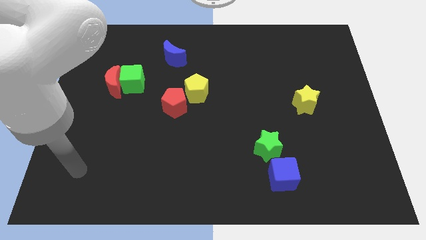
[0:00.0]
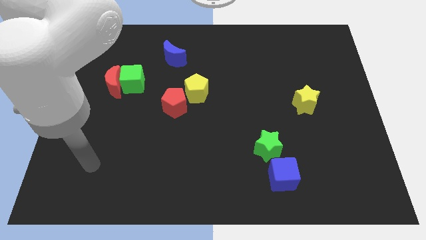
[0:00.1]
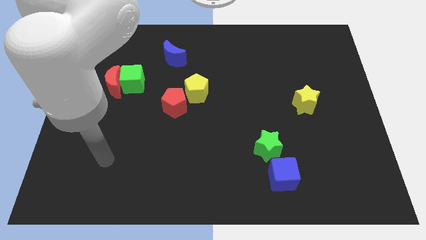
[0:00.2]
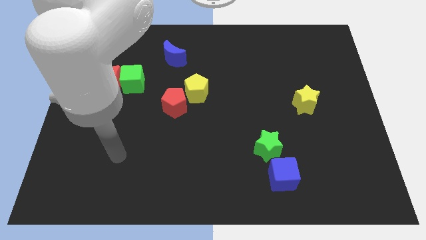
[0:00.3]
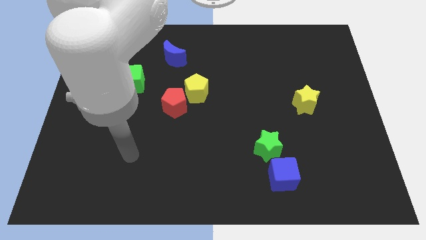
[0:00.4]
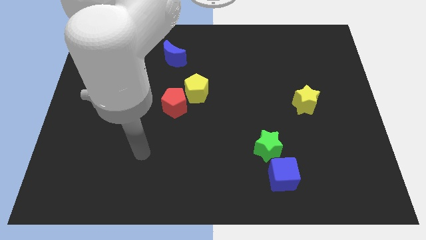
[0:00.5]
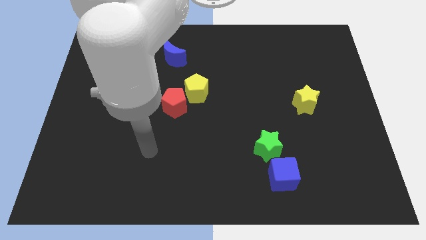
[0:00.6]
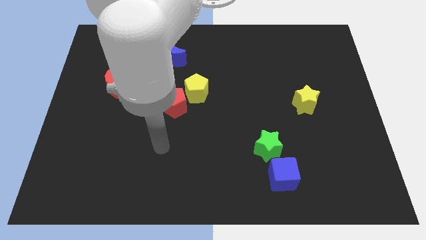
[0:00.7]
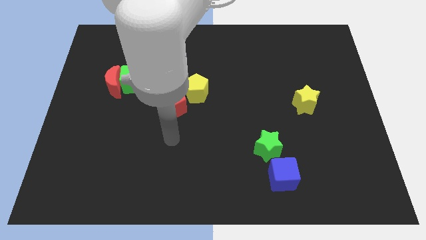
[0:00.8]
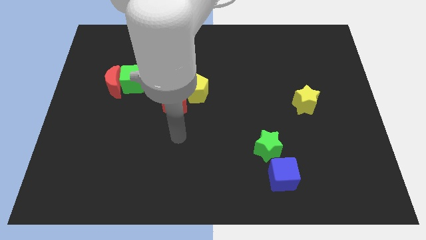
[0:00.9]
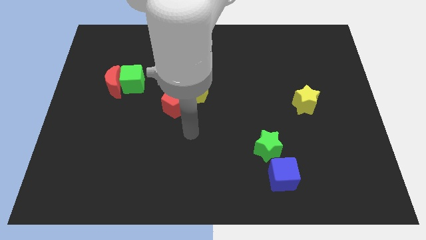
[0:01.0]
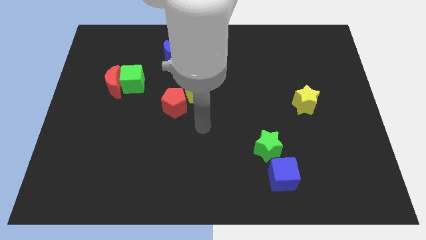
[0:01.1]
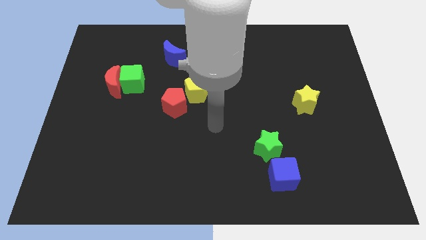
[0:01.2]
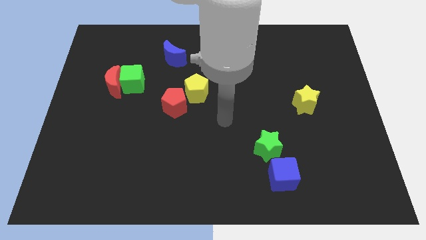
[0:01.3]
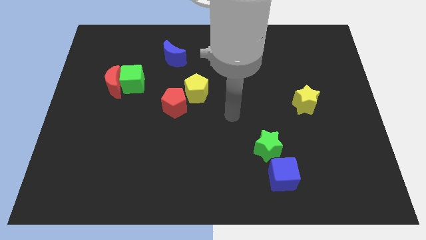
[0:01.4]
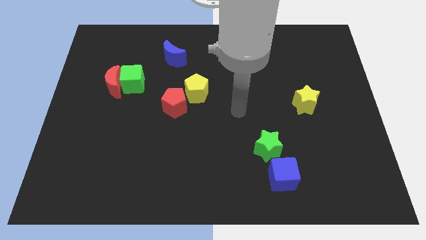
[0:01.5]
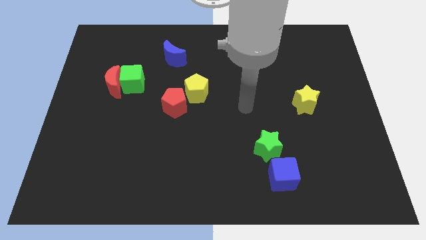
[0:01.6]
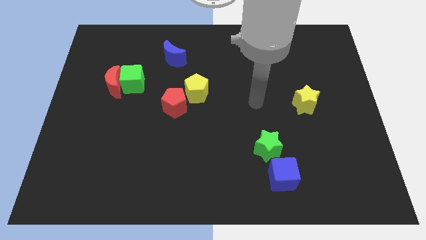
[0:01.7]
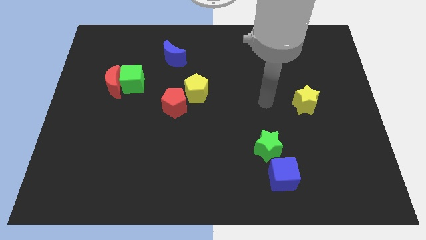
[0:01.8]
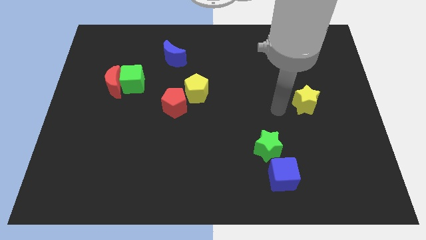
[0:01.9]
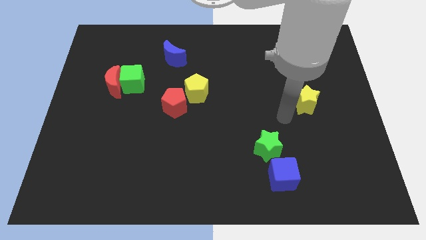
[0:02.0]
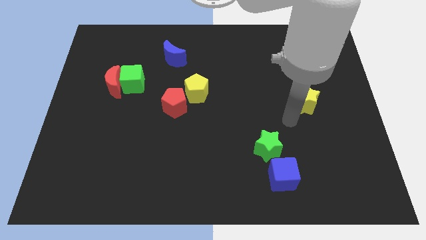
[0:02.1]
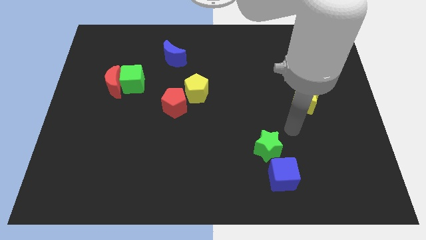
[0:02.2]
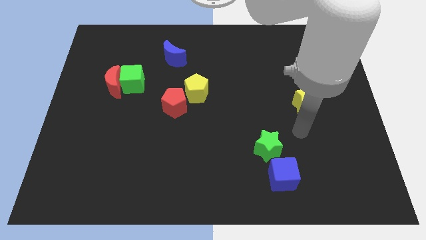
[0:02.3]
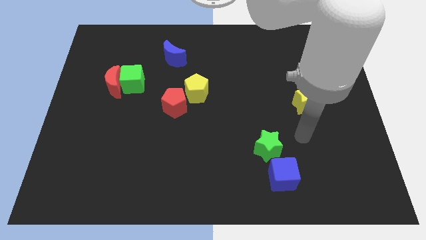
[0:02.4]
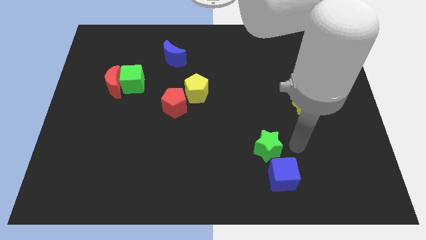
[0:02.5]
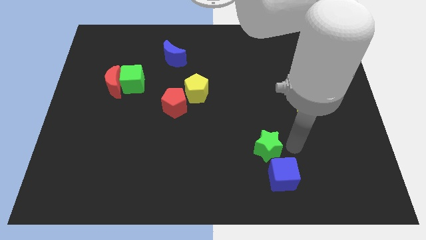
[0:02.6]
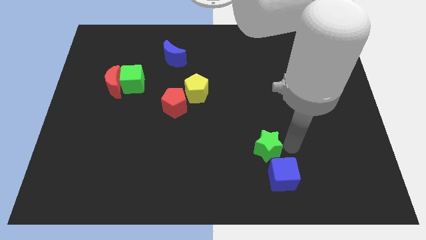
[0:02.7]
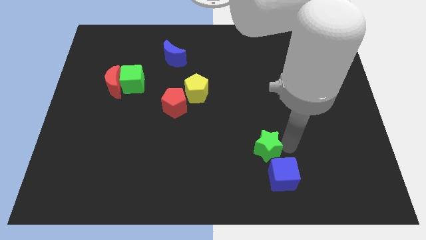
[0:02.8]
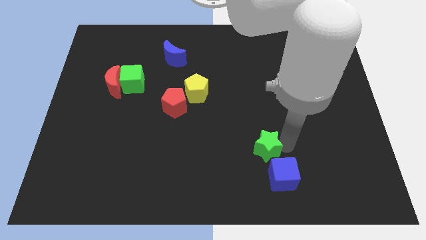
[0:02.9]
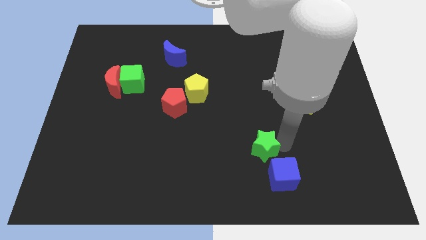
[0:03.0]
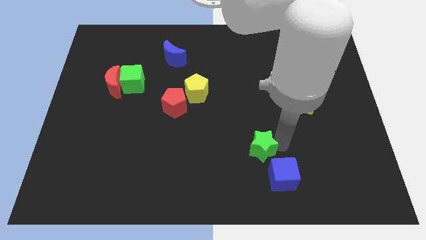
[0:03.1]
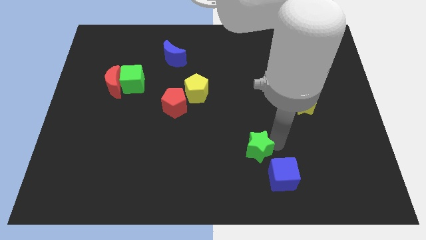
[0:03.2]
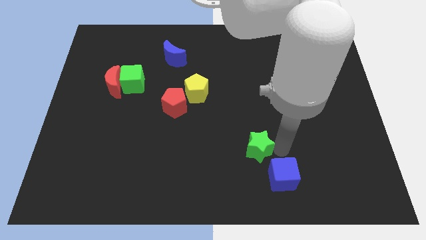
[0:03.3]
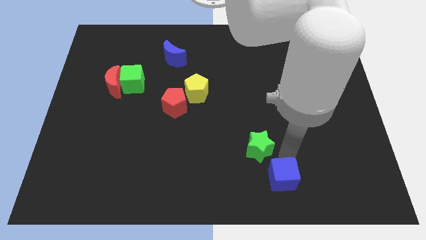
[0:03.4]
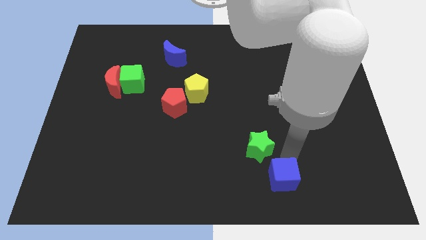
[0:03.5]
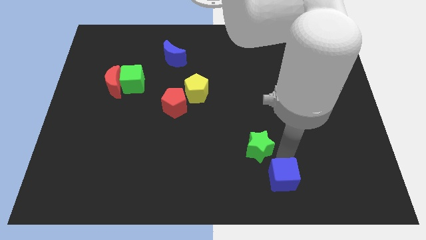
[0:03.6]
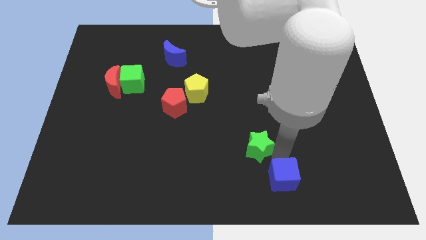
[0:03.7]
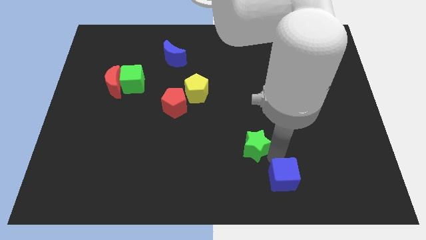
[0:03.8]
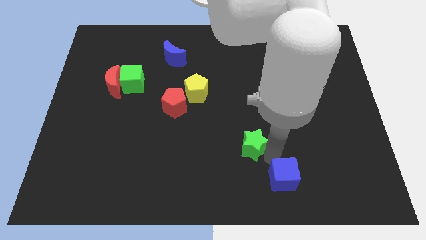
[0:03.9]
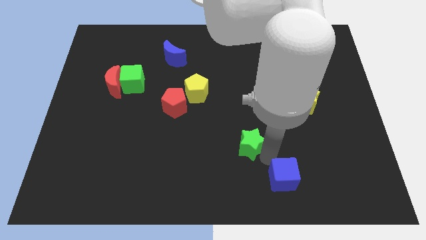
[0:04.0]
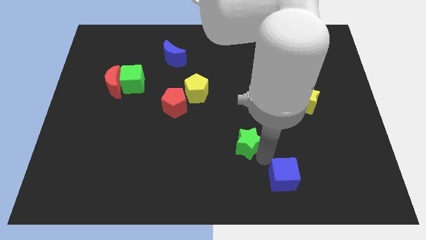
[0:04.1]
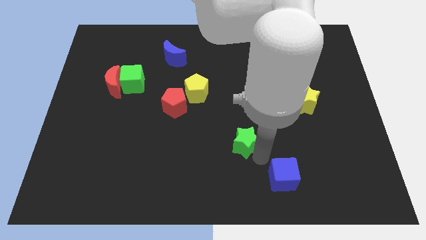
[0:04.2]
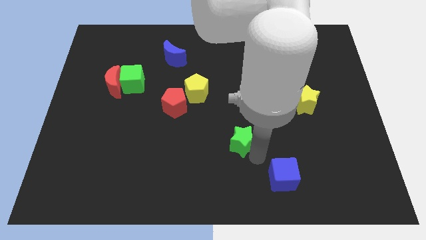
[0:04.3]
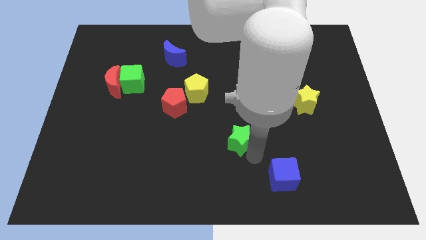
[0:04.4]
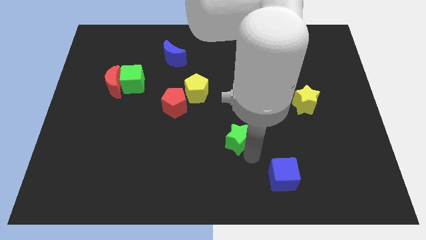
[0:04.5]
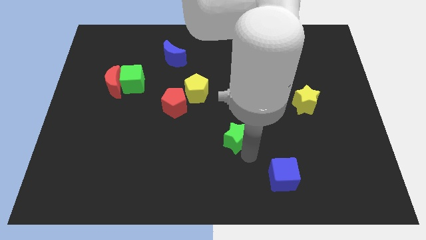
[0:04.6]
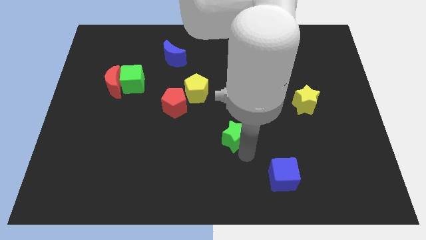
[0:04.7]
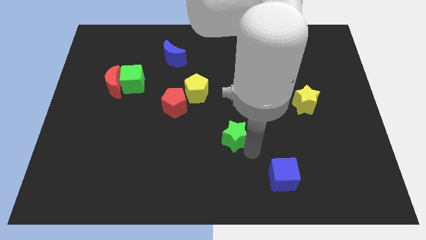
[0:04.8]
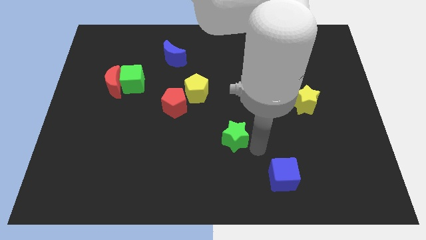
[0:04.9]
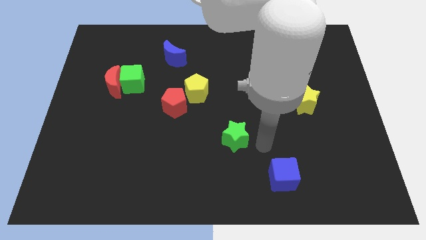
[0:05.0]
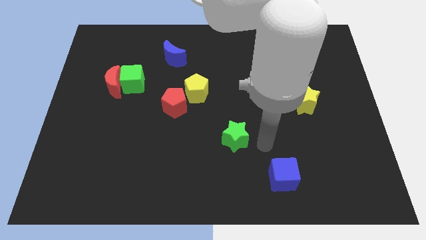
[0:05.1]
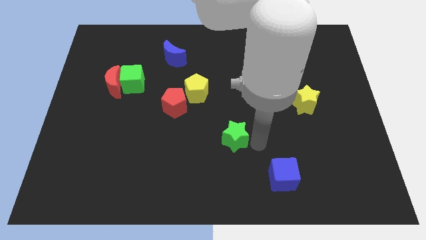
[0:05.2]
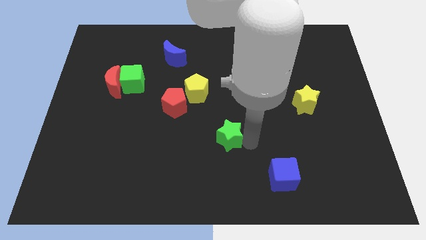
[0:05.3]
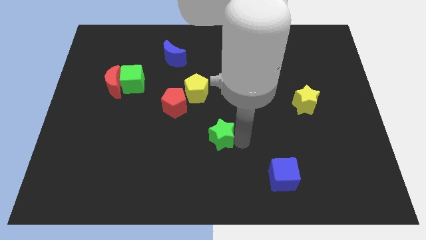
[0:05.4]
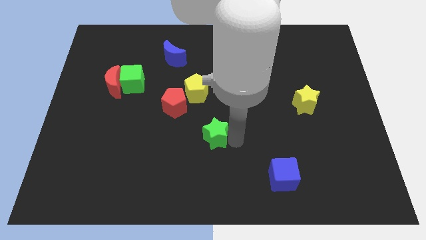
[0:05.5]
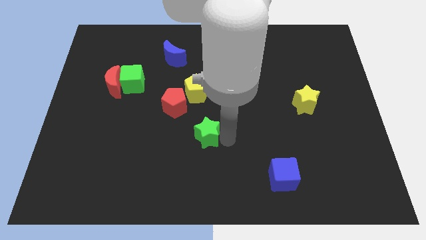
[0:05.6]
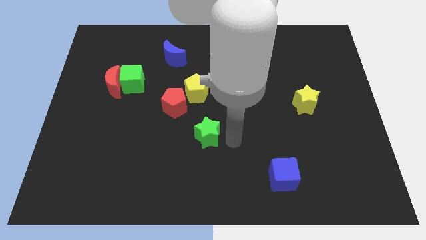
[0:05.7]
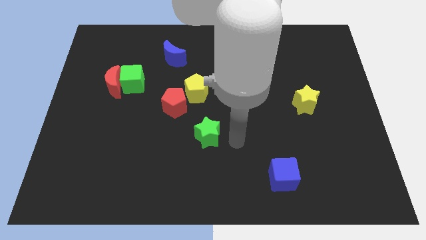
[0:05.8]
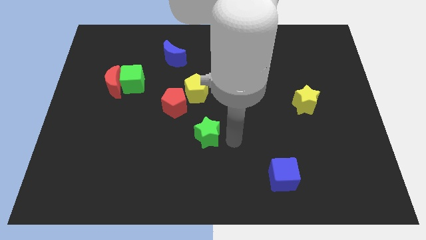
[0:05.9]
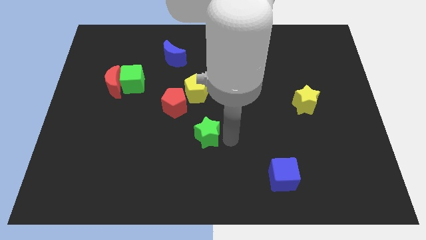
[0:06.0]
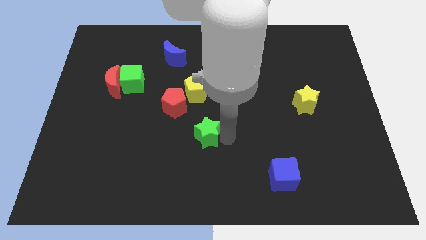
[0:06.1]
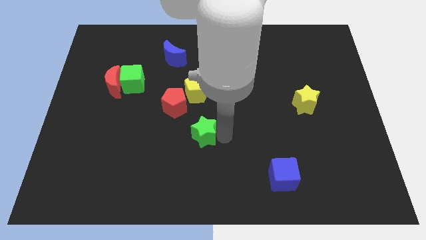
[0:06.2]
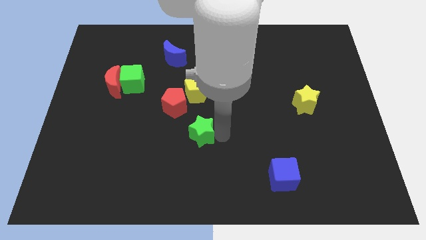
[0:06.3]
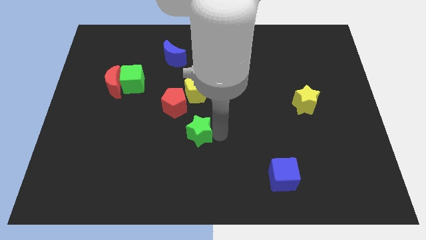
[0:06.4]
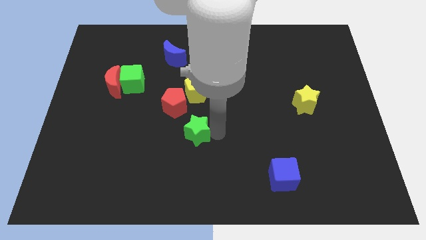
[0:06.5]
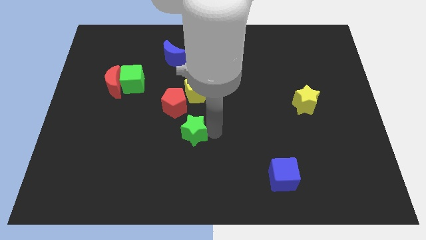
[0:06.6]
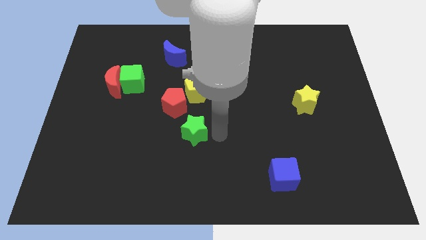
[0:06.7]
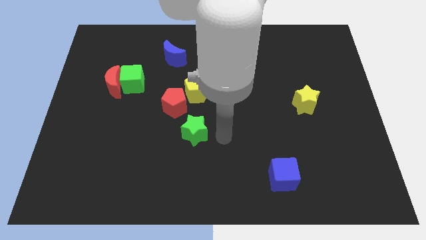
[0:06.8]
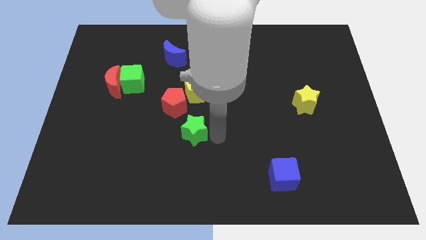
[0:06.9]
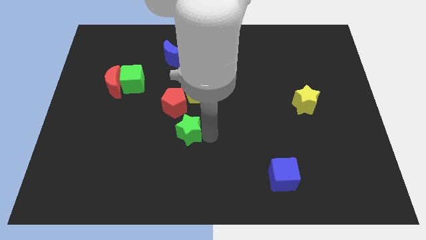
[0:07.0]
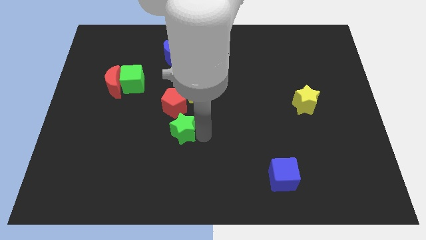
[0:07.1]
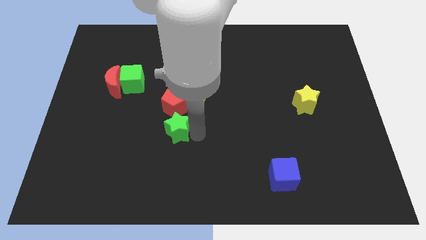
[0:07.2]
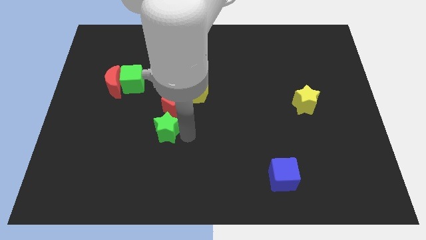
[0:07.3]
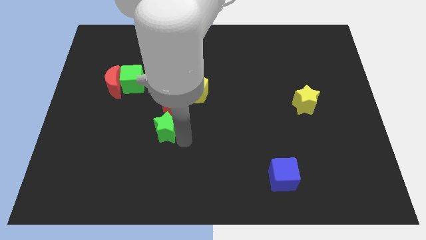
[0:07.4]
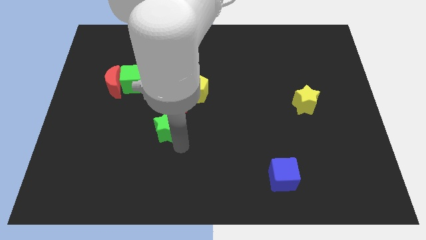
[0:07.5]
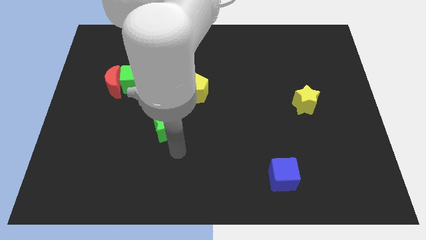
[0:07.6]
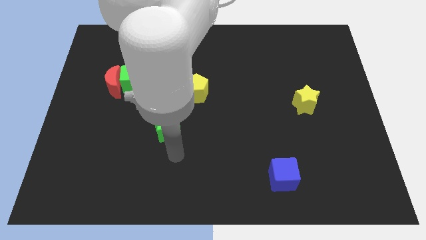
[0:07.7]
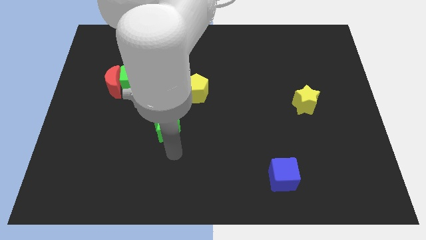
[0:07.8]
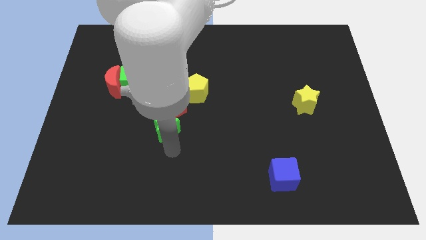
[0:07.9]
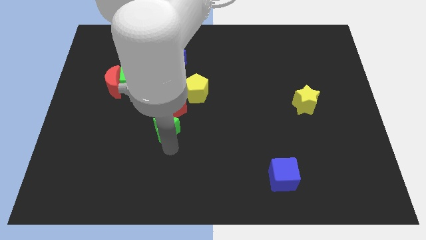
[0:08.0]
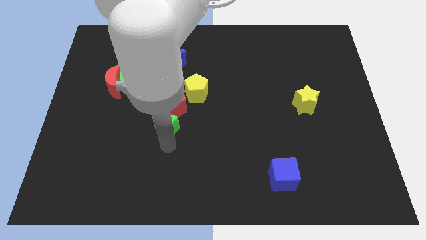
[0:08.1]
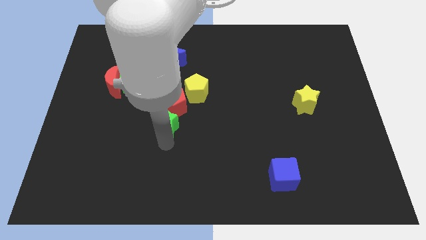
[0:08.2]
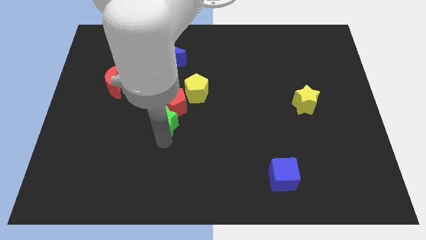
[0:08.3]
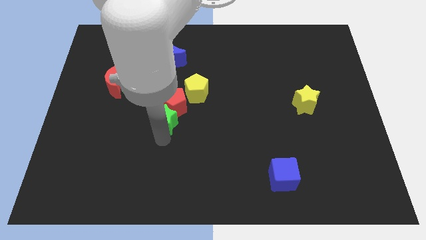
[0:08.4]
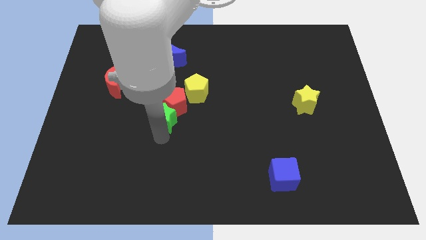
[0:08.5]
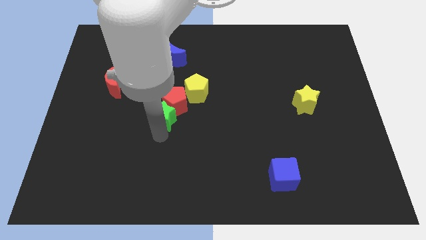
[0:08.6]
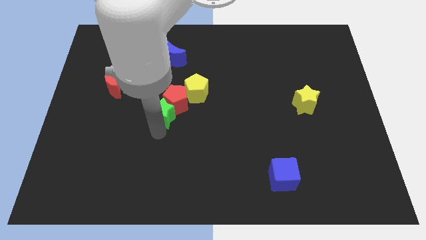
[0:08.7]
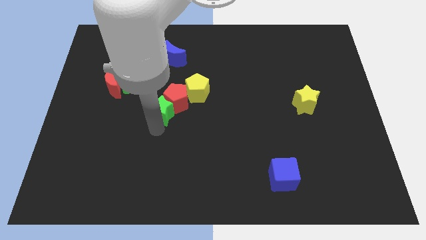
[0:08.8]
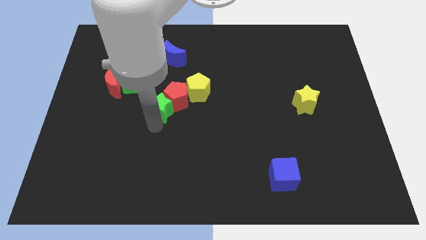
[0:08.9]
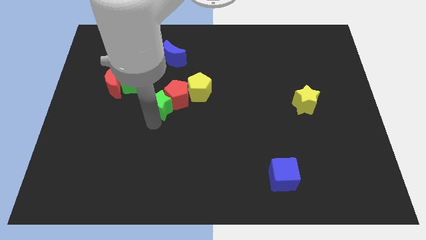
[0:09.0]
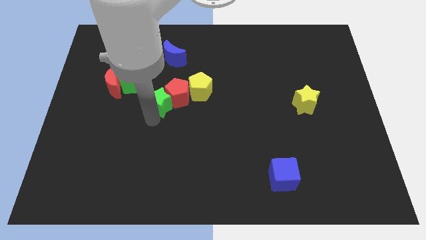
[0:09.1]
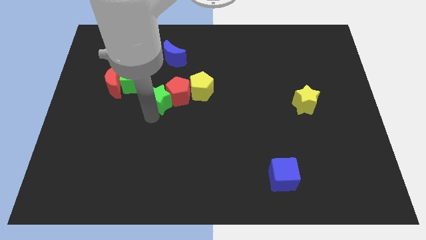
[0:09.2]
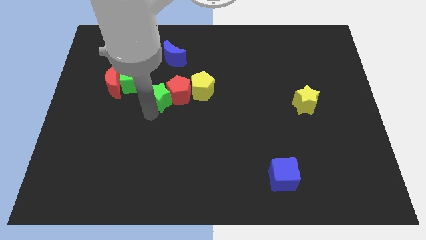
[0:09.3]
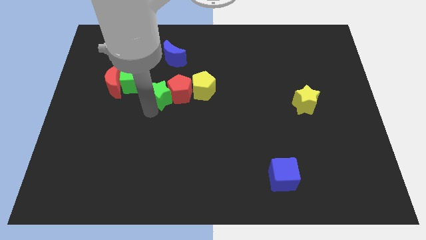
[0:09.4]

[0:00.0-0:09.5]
push the green star diagonally up and to the left of the red pentagon
